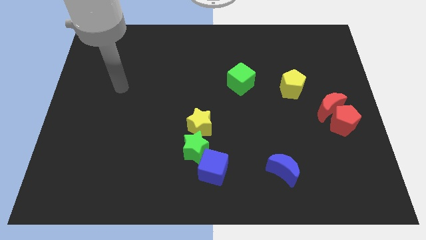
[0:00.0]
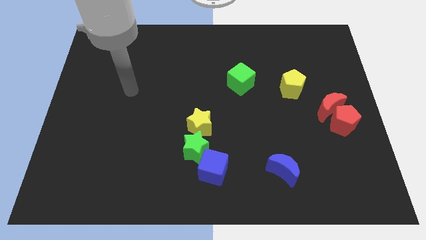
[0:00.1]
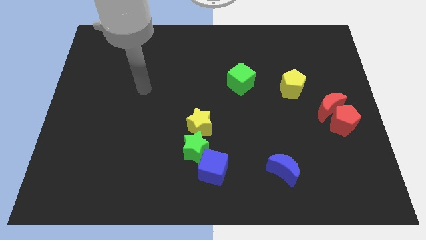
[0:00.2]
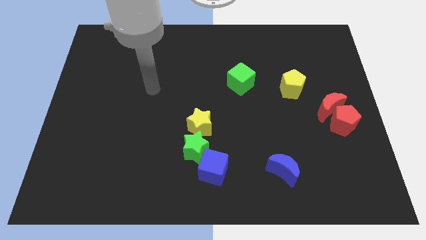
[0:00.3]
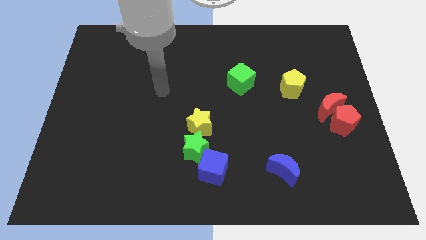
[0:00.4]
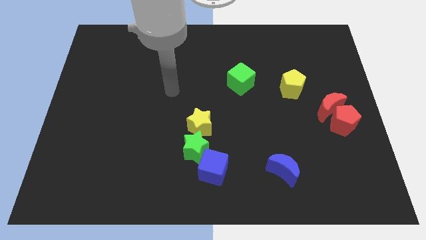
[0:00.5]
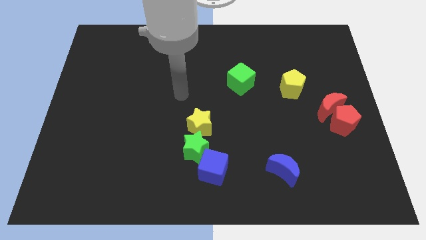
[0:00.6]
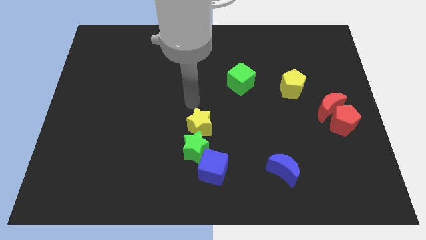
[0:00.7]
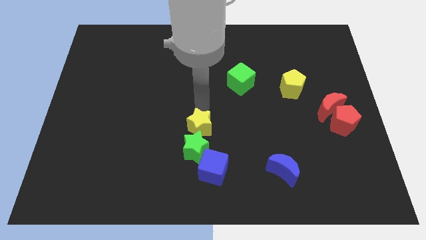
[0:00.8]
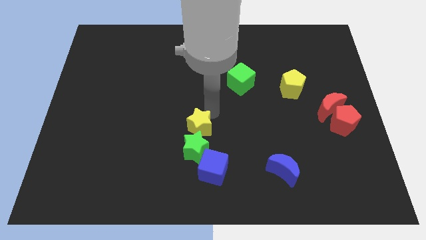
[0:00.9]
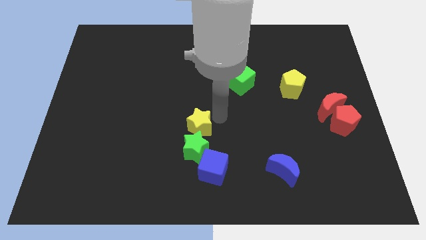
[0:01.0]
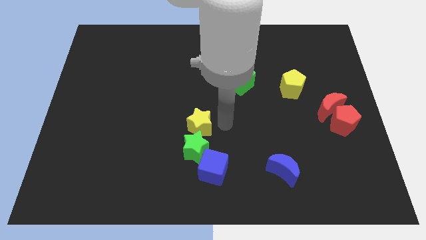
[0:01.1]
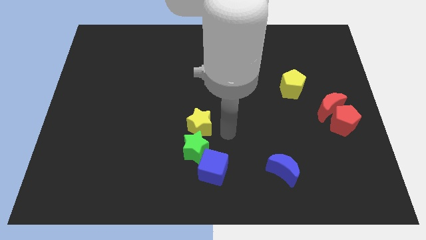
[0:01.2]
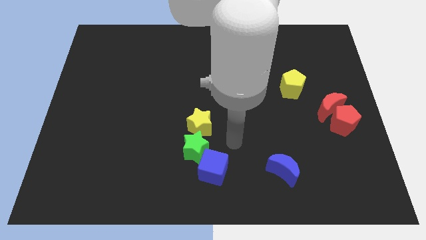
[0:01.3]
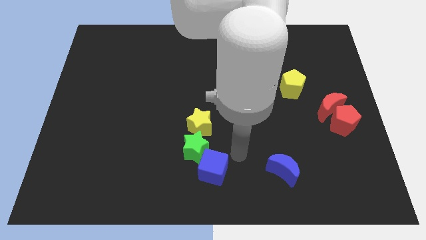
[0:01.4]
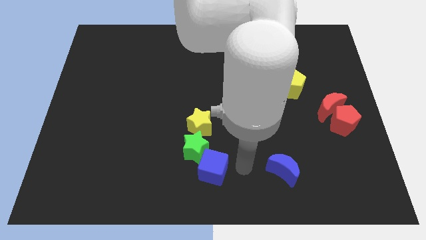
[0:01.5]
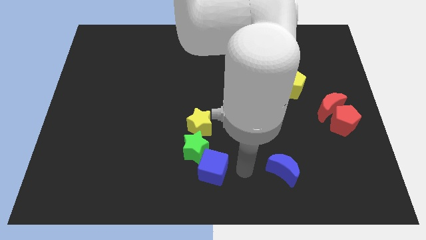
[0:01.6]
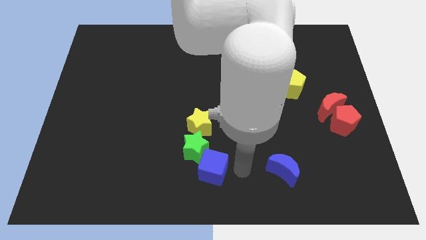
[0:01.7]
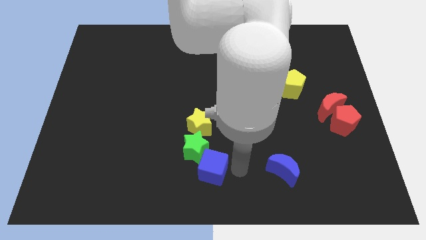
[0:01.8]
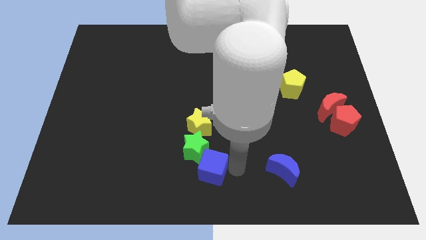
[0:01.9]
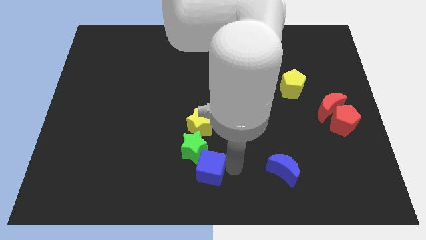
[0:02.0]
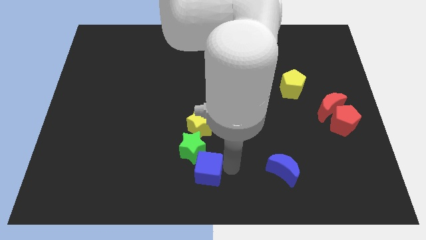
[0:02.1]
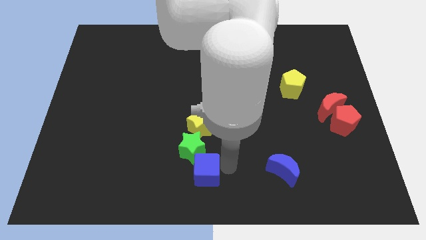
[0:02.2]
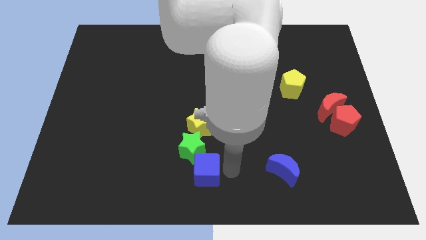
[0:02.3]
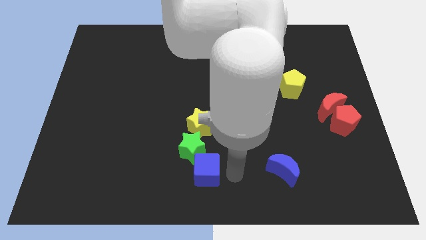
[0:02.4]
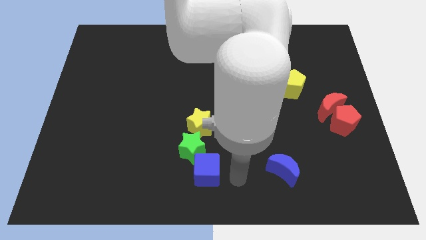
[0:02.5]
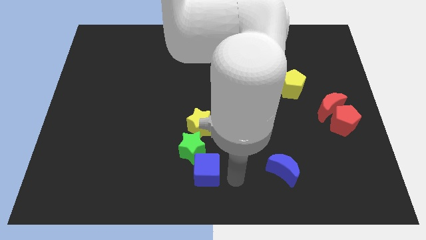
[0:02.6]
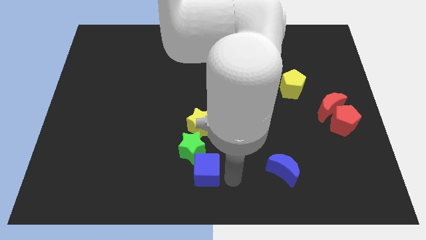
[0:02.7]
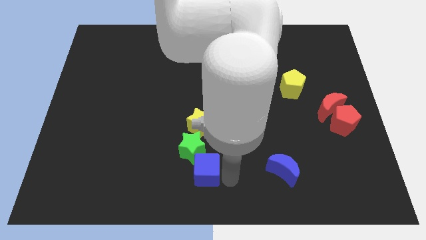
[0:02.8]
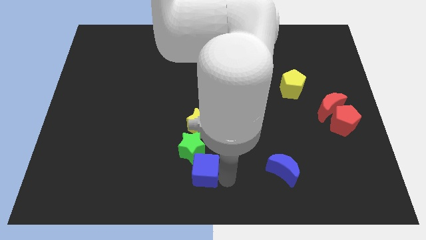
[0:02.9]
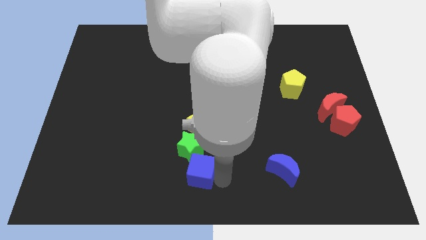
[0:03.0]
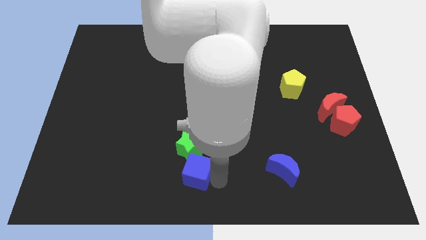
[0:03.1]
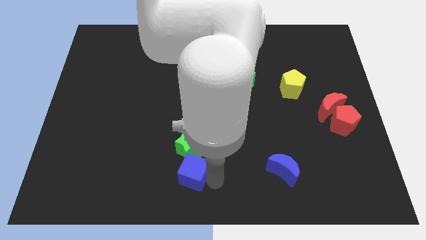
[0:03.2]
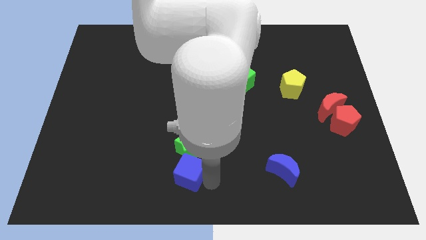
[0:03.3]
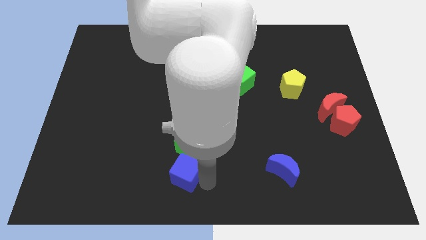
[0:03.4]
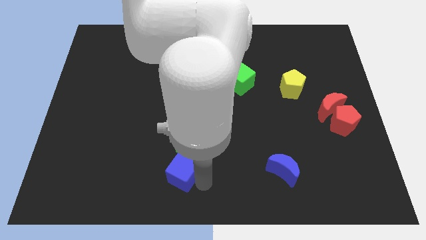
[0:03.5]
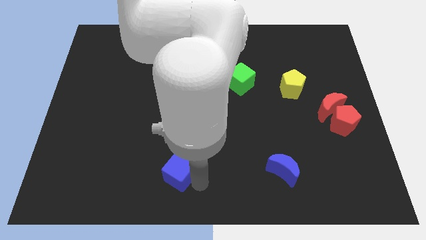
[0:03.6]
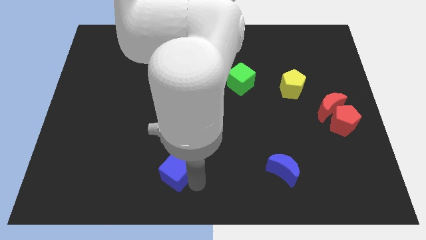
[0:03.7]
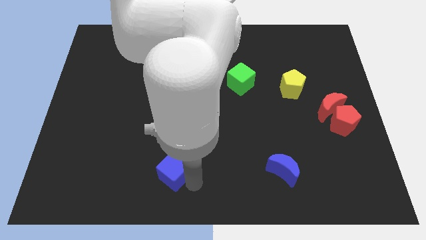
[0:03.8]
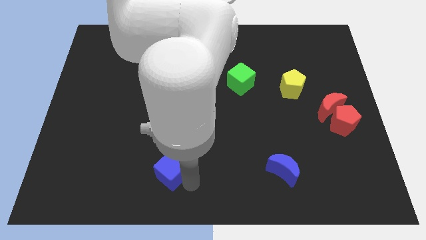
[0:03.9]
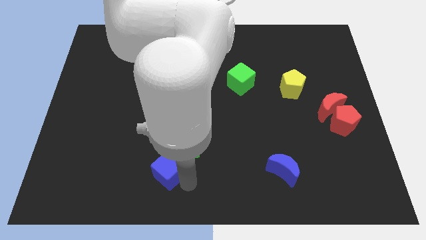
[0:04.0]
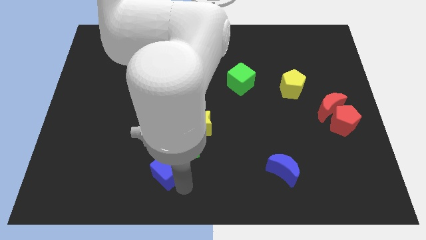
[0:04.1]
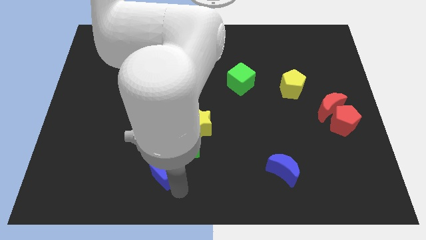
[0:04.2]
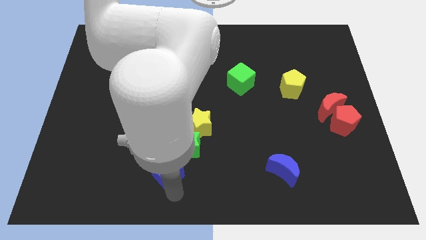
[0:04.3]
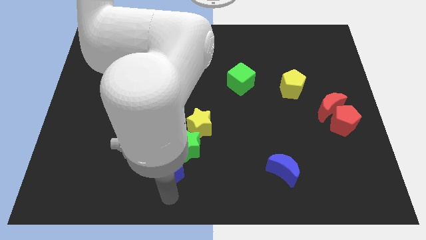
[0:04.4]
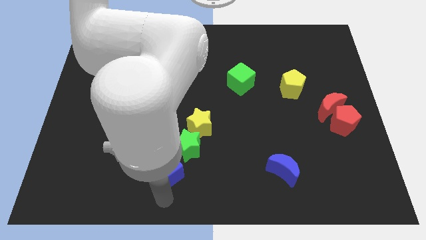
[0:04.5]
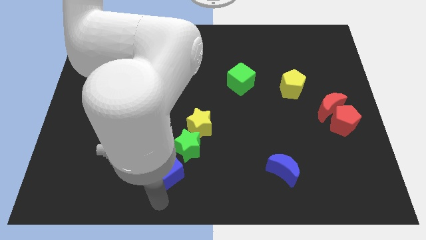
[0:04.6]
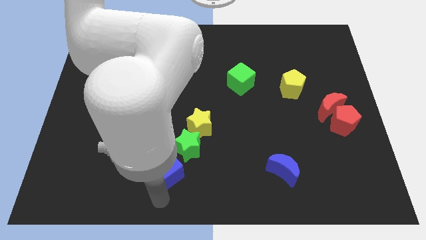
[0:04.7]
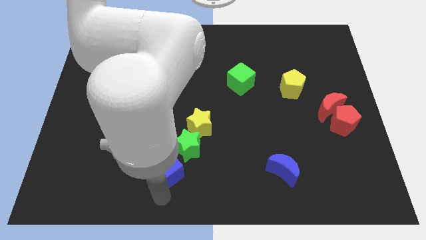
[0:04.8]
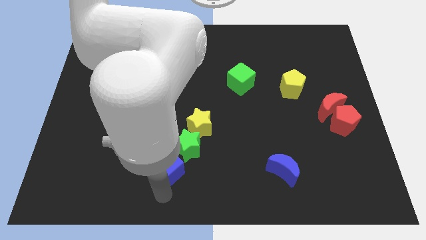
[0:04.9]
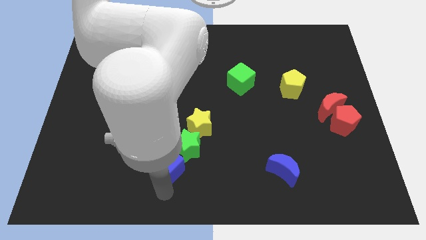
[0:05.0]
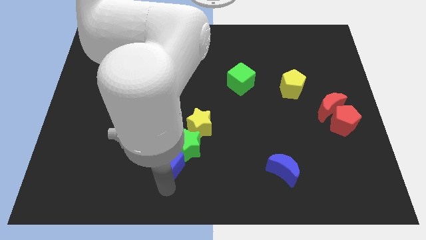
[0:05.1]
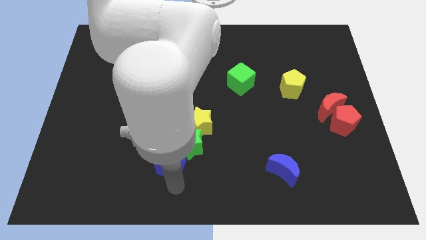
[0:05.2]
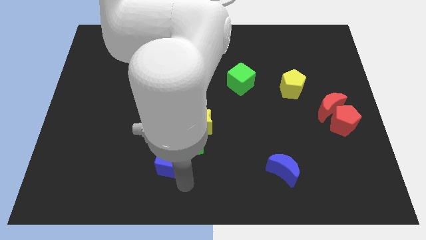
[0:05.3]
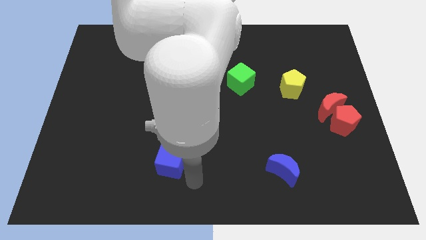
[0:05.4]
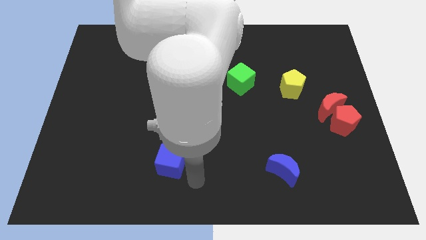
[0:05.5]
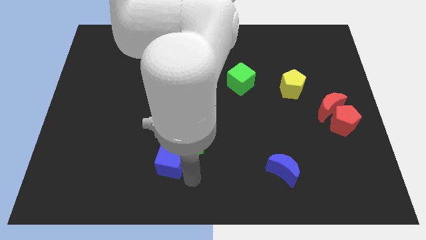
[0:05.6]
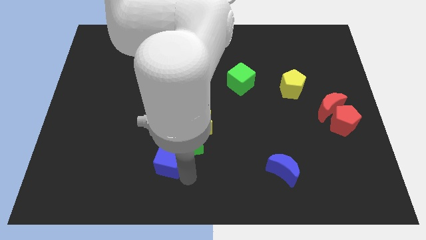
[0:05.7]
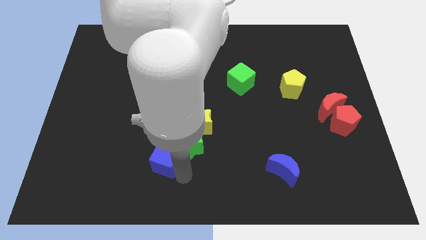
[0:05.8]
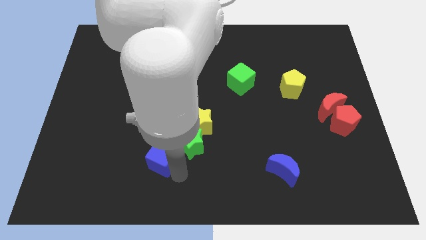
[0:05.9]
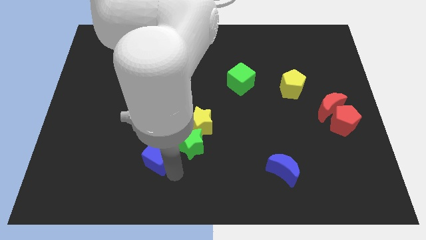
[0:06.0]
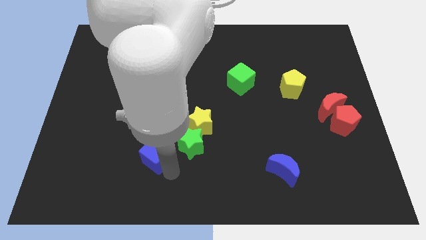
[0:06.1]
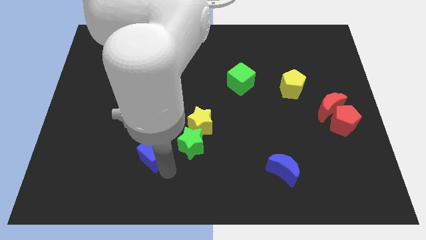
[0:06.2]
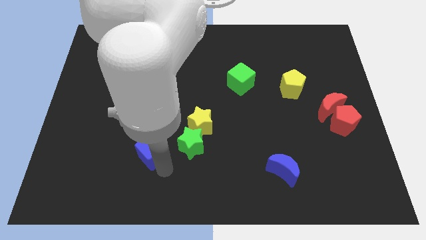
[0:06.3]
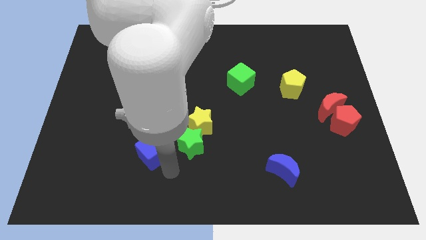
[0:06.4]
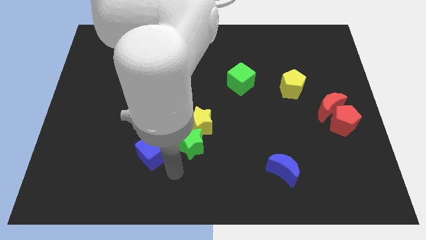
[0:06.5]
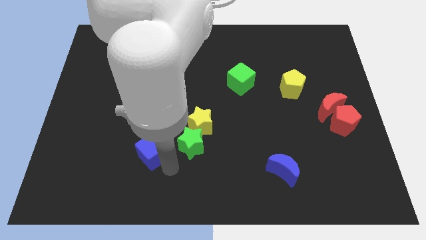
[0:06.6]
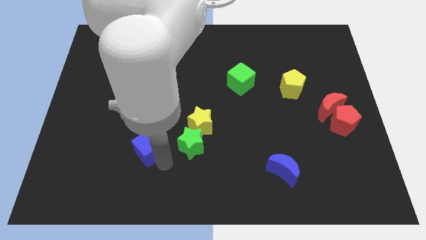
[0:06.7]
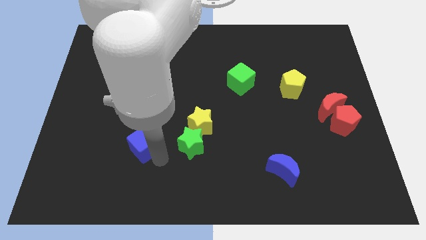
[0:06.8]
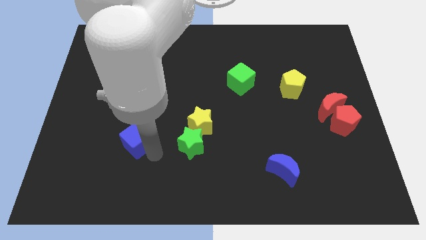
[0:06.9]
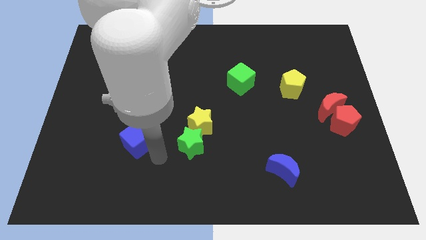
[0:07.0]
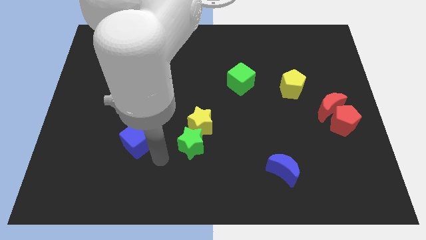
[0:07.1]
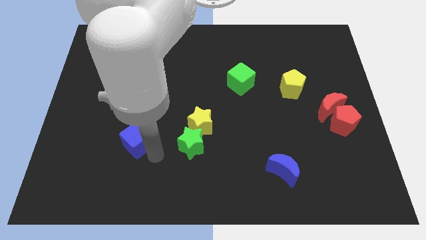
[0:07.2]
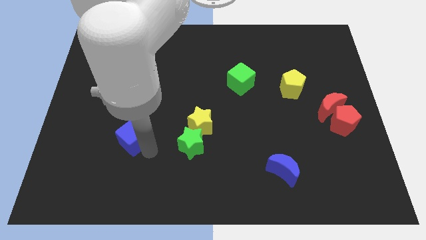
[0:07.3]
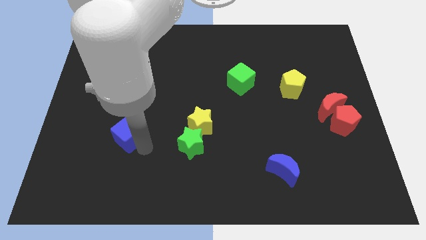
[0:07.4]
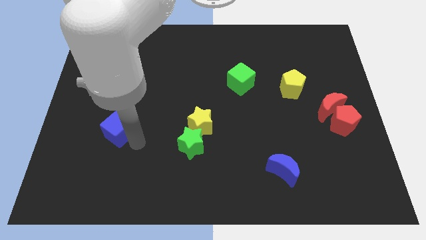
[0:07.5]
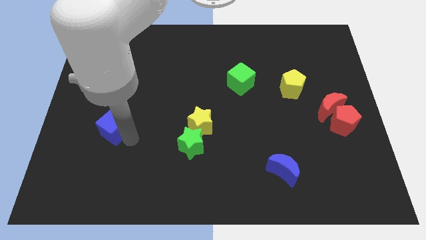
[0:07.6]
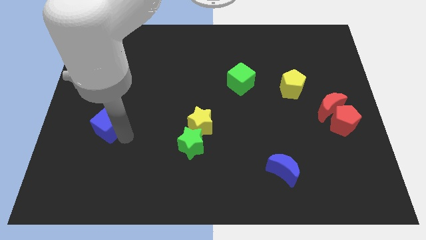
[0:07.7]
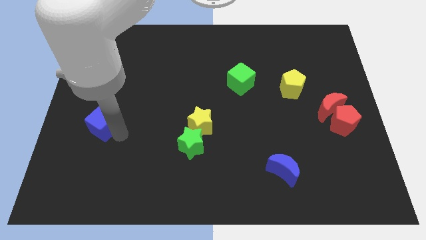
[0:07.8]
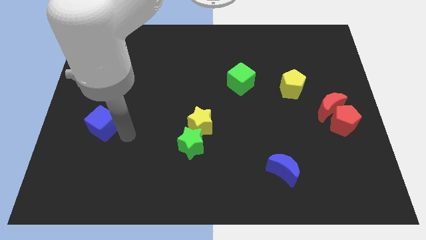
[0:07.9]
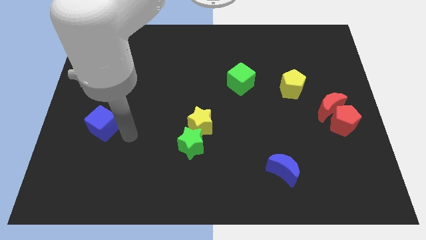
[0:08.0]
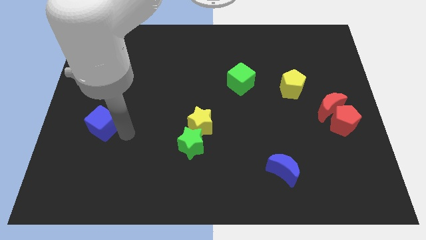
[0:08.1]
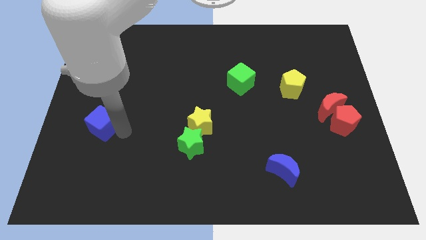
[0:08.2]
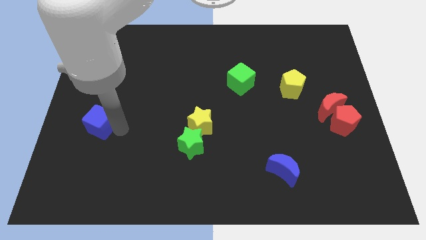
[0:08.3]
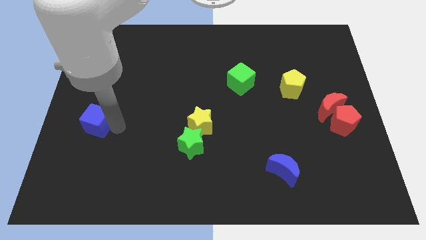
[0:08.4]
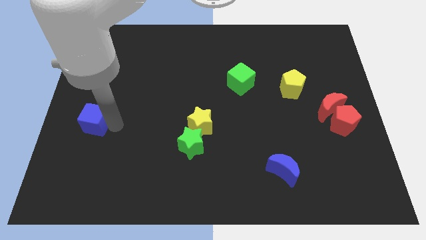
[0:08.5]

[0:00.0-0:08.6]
put the blue cube to the left side
